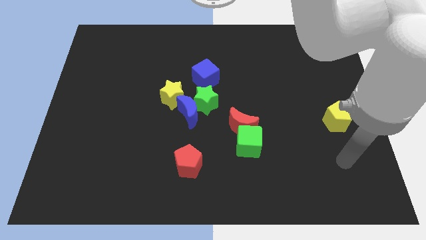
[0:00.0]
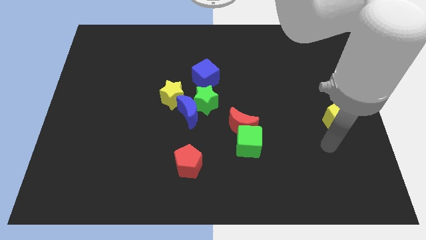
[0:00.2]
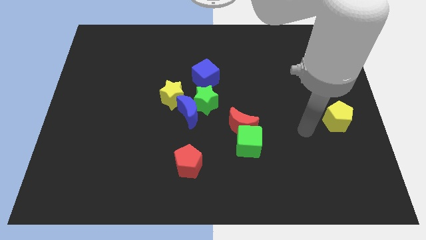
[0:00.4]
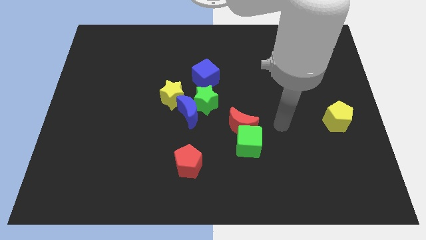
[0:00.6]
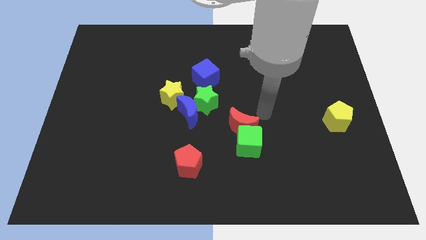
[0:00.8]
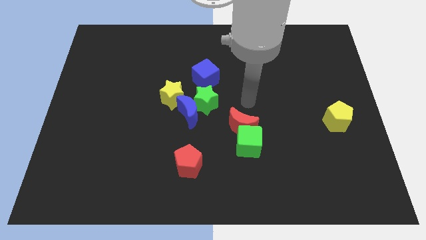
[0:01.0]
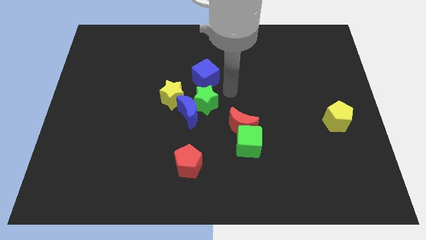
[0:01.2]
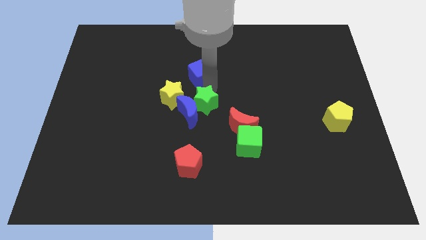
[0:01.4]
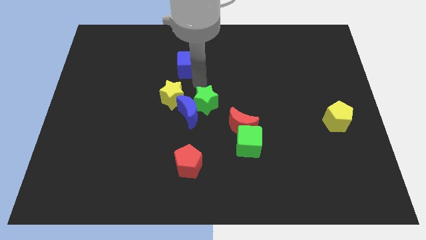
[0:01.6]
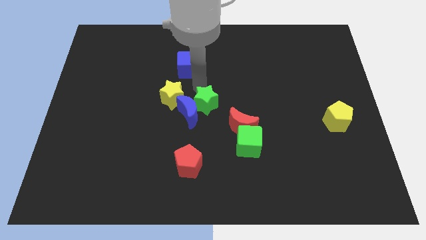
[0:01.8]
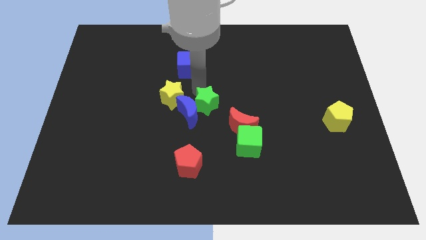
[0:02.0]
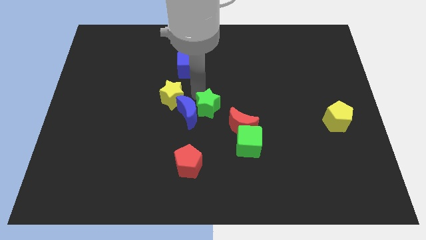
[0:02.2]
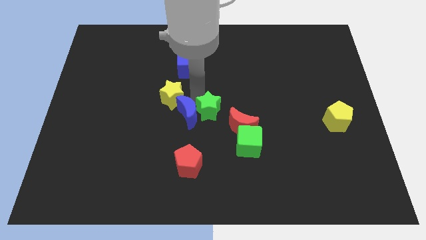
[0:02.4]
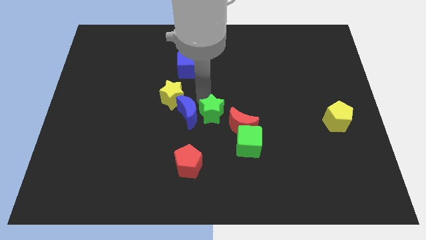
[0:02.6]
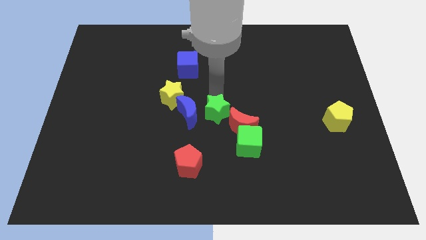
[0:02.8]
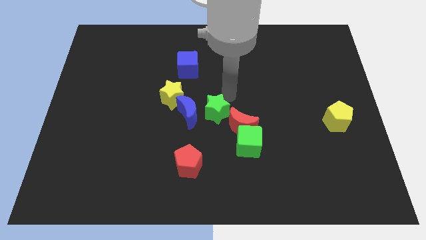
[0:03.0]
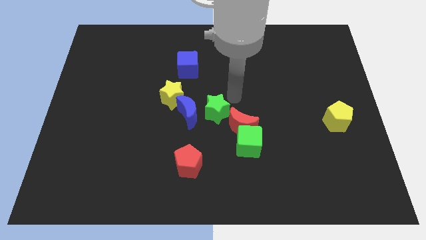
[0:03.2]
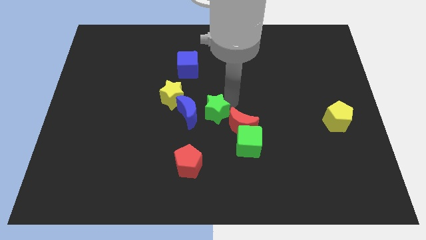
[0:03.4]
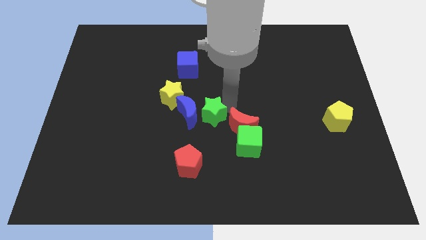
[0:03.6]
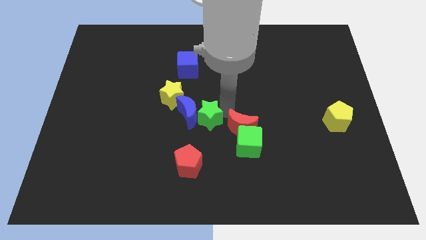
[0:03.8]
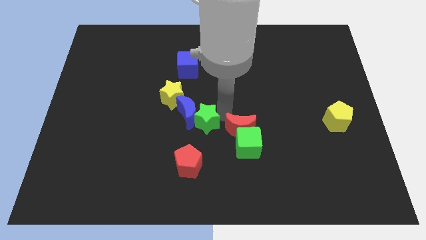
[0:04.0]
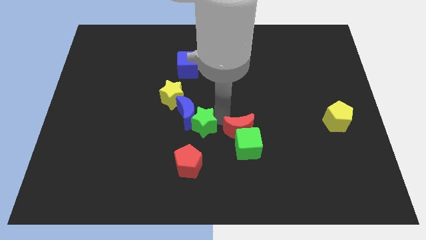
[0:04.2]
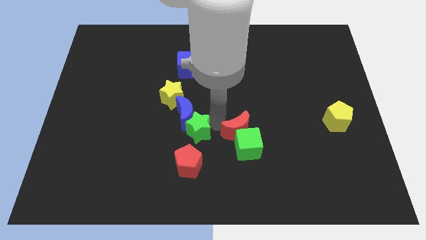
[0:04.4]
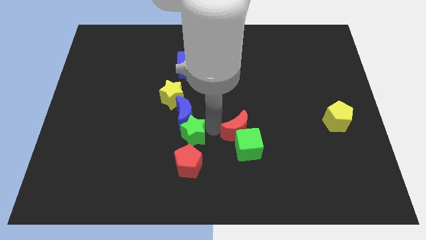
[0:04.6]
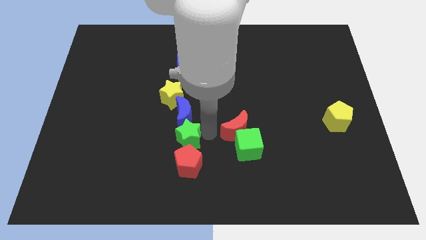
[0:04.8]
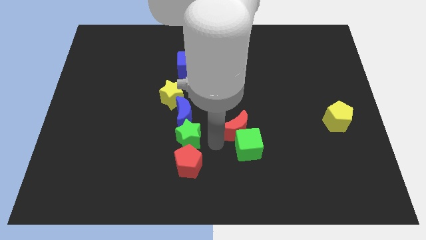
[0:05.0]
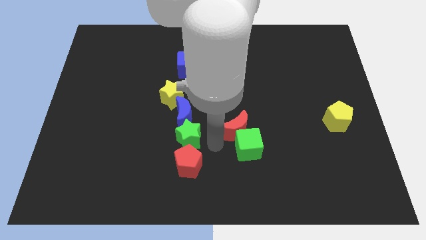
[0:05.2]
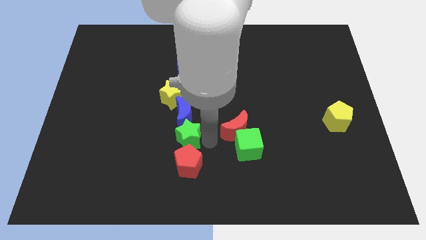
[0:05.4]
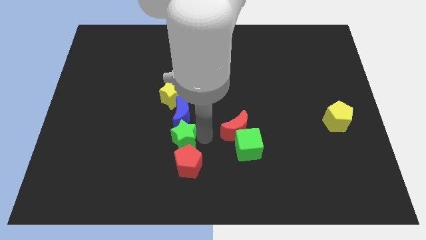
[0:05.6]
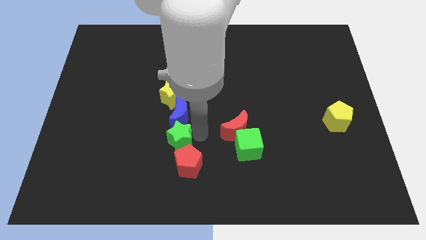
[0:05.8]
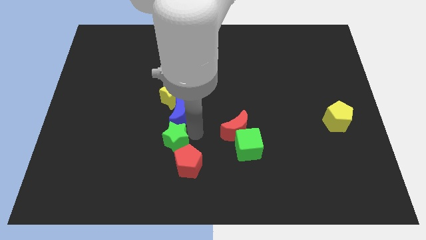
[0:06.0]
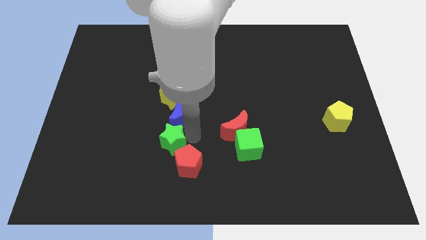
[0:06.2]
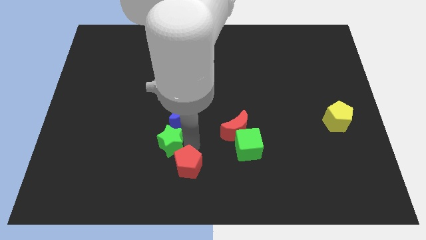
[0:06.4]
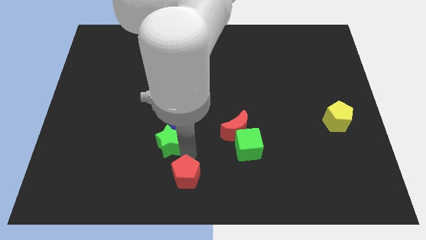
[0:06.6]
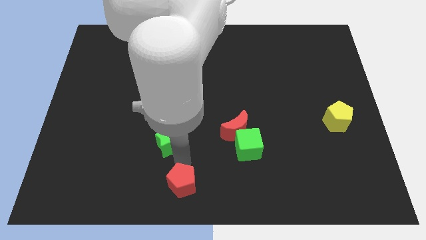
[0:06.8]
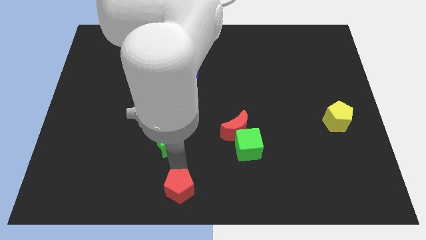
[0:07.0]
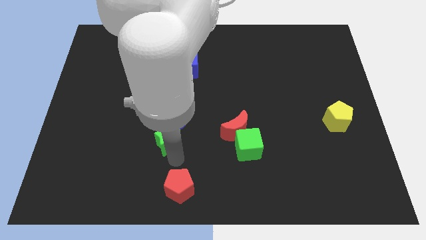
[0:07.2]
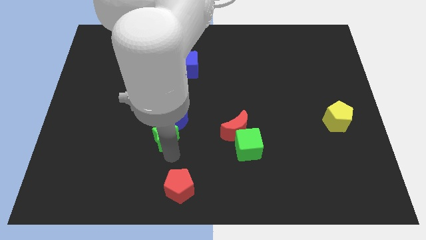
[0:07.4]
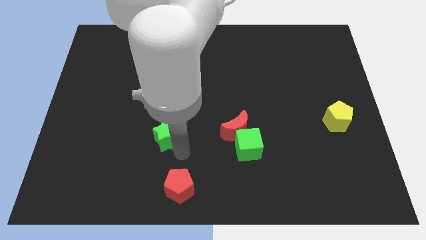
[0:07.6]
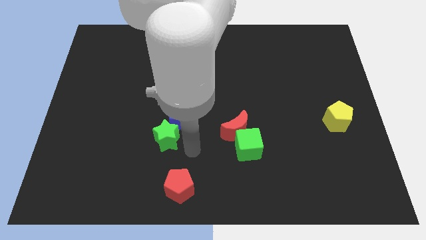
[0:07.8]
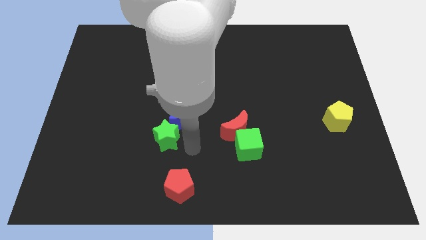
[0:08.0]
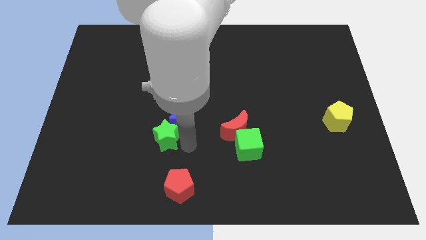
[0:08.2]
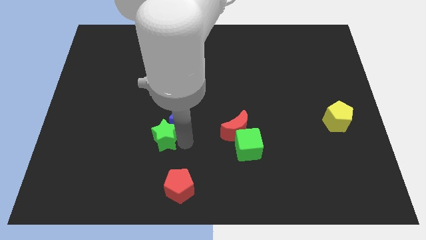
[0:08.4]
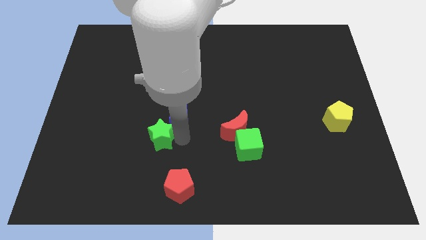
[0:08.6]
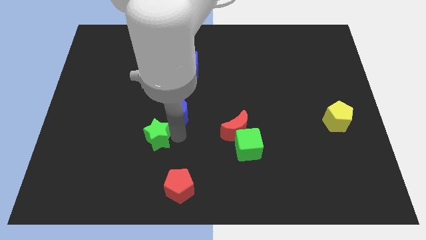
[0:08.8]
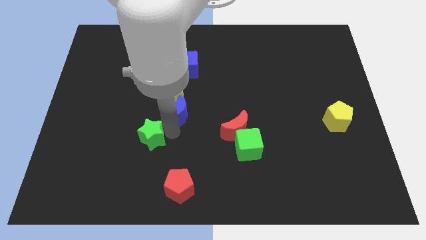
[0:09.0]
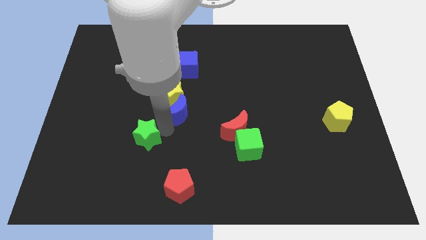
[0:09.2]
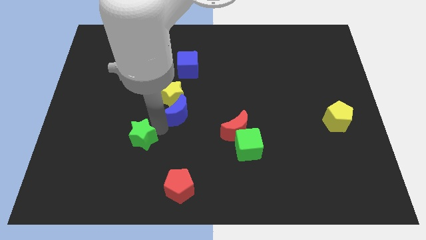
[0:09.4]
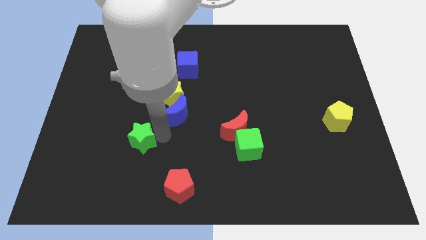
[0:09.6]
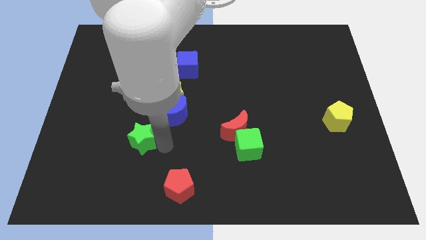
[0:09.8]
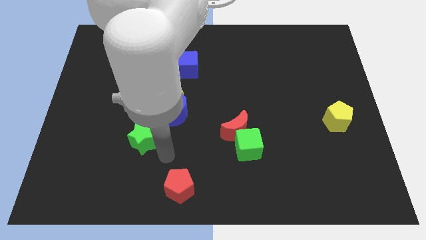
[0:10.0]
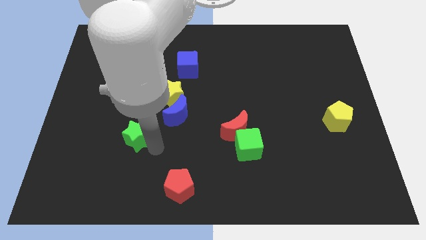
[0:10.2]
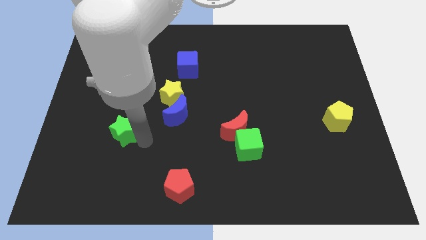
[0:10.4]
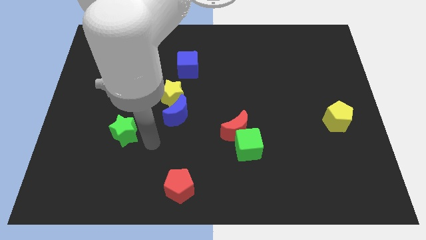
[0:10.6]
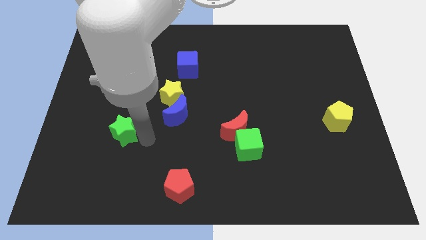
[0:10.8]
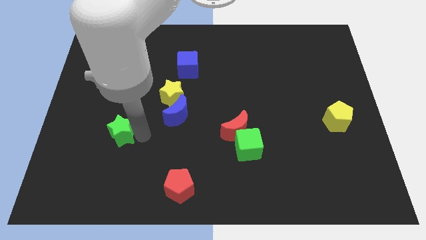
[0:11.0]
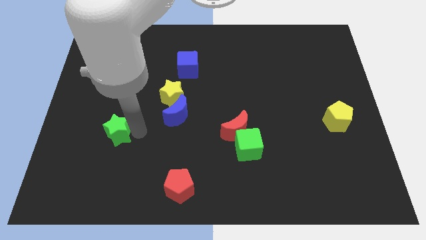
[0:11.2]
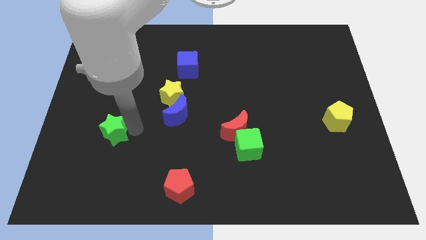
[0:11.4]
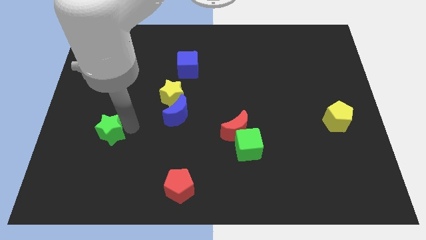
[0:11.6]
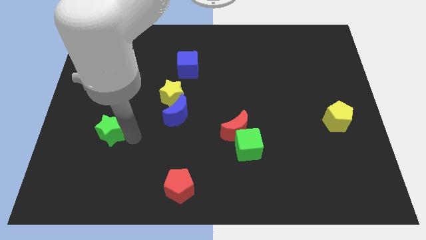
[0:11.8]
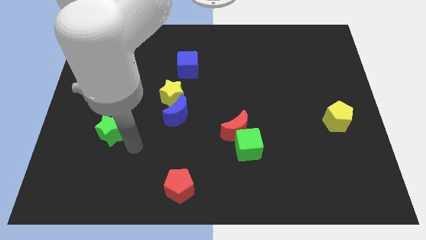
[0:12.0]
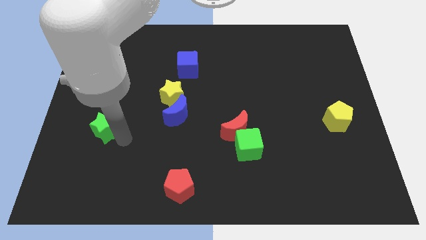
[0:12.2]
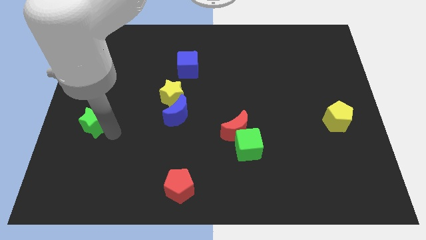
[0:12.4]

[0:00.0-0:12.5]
slide the green star to the center left

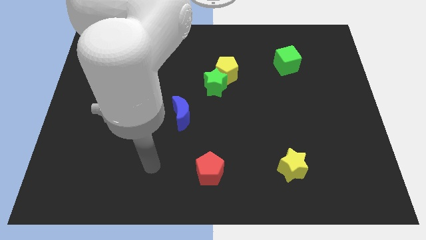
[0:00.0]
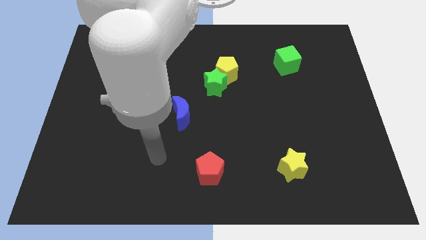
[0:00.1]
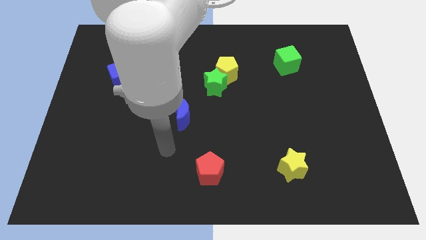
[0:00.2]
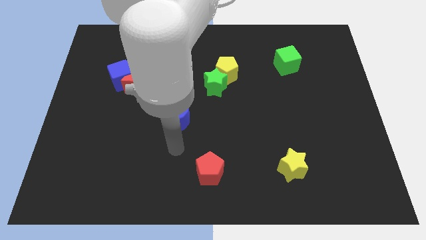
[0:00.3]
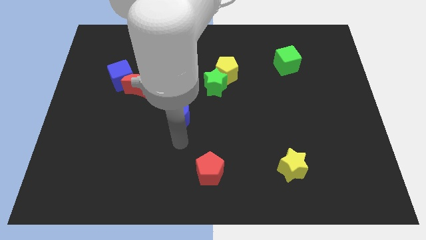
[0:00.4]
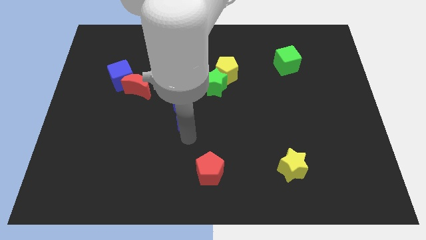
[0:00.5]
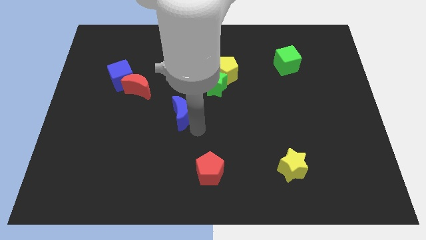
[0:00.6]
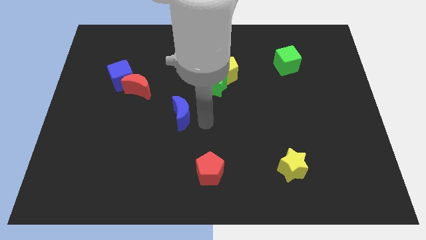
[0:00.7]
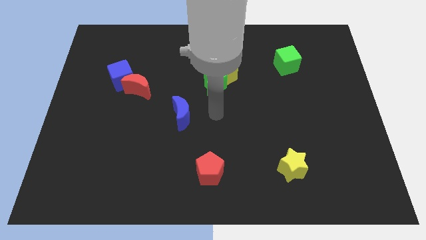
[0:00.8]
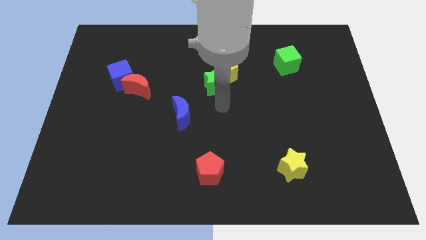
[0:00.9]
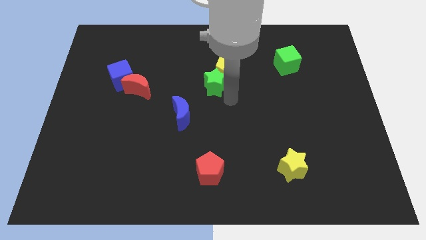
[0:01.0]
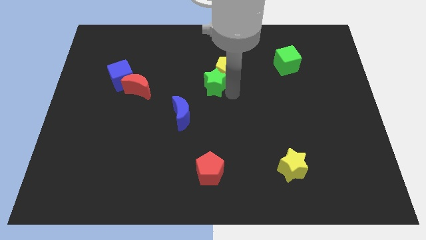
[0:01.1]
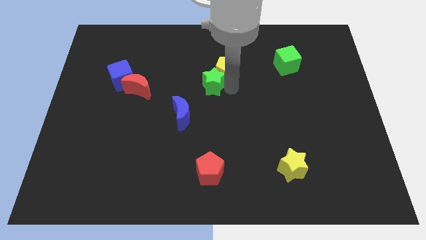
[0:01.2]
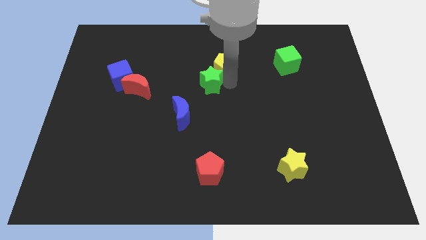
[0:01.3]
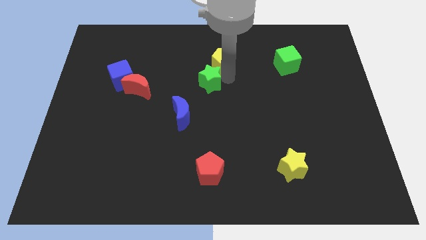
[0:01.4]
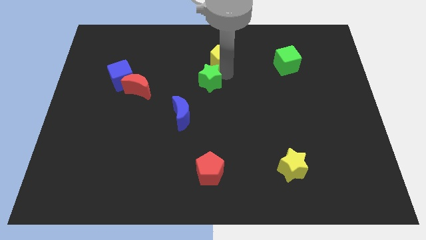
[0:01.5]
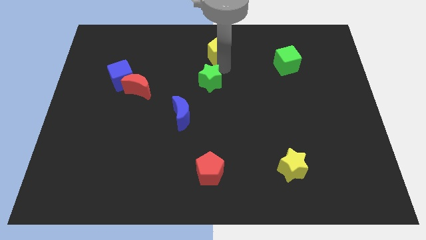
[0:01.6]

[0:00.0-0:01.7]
put the yellow pentagon to the towards your base
